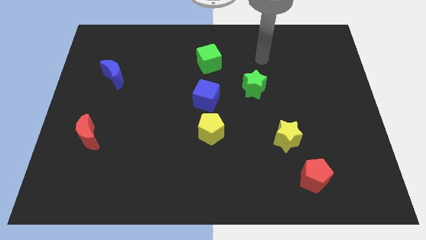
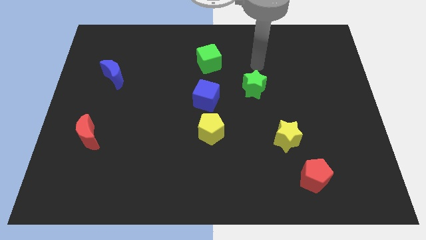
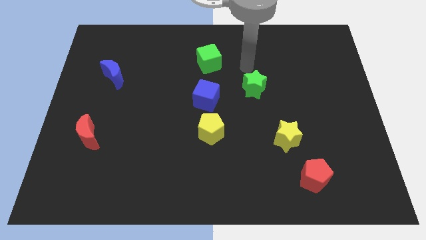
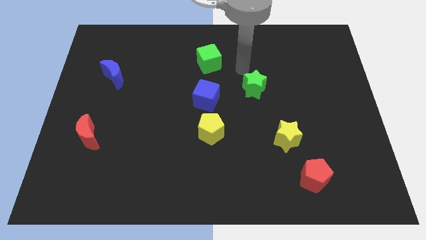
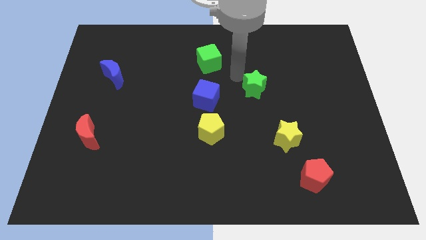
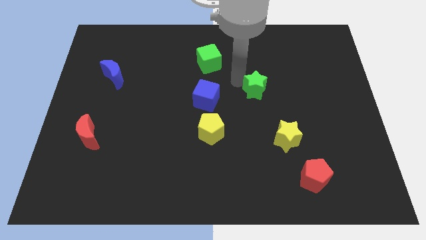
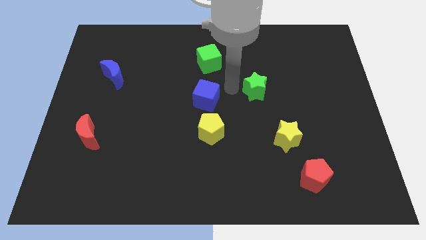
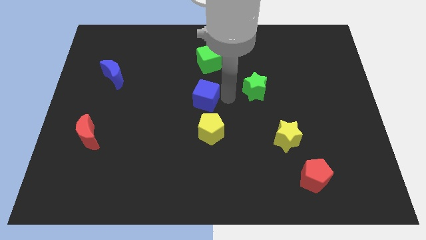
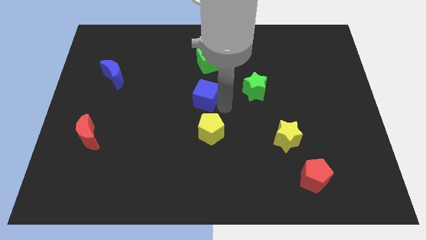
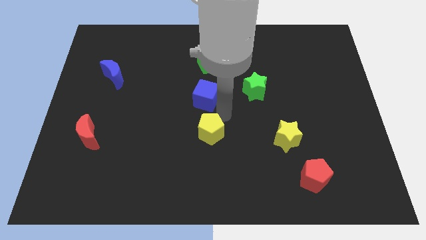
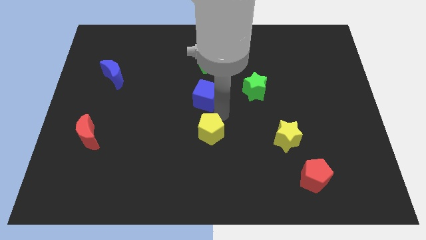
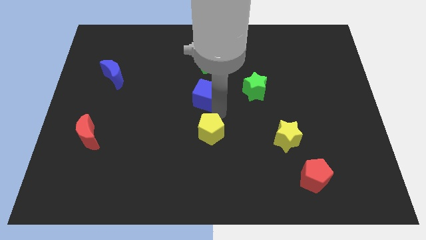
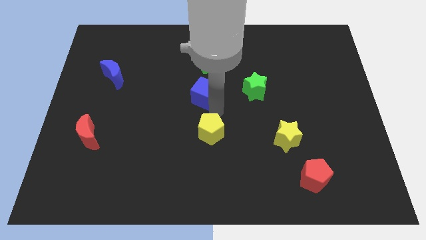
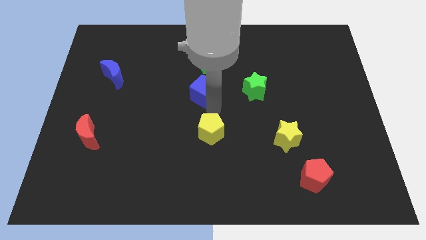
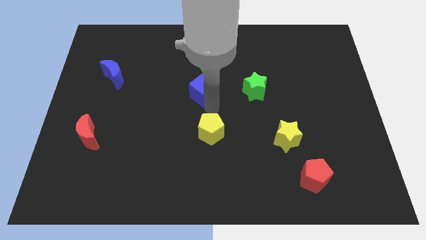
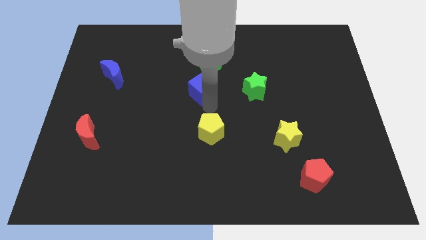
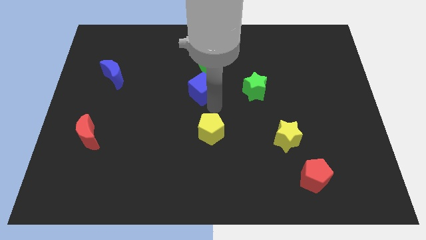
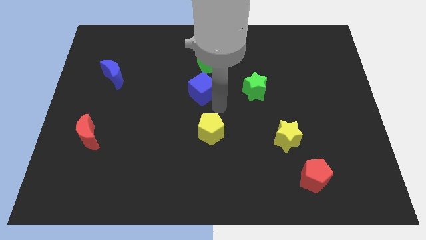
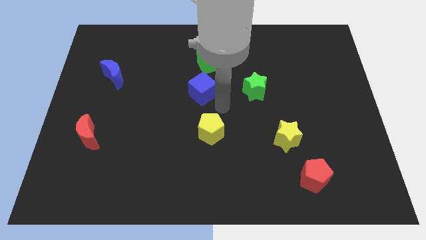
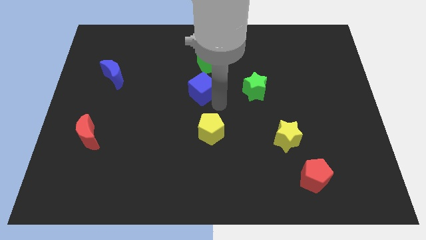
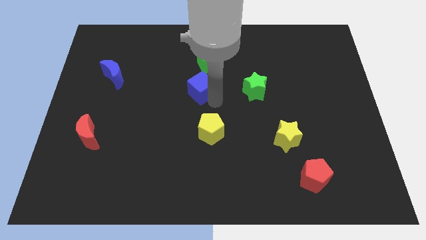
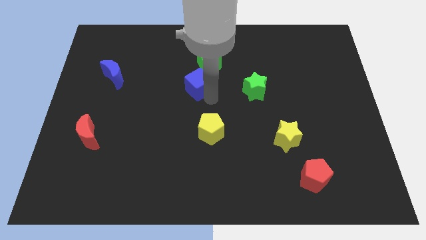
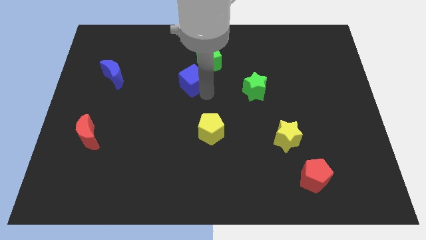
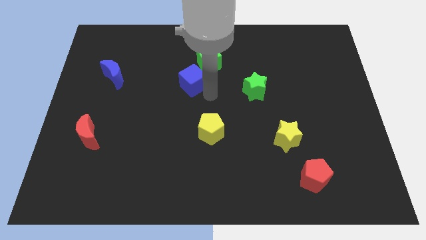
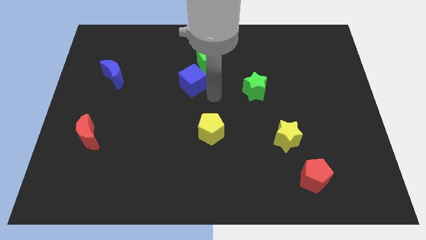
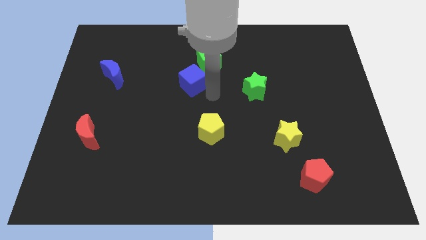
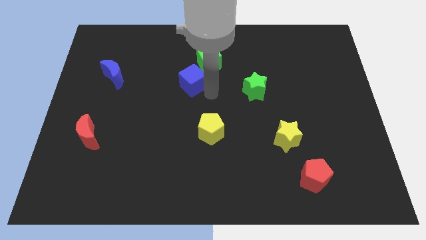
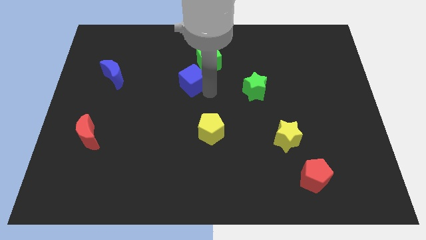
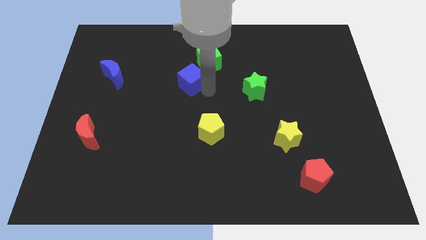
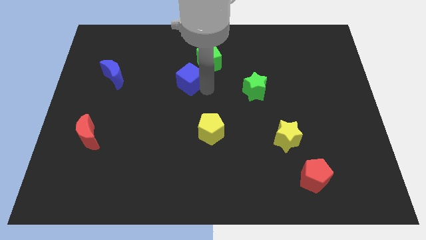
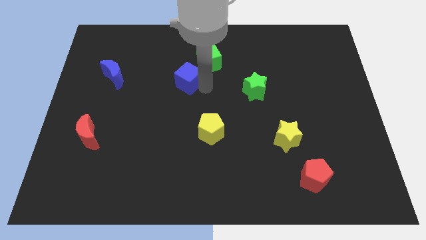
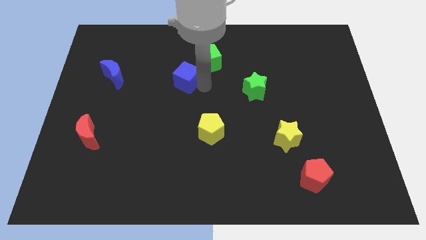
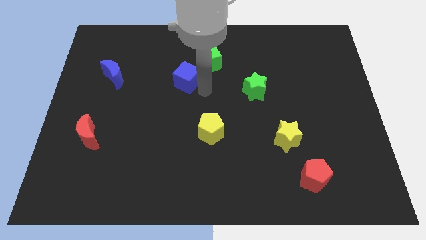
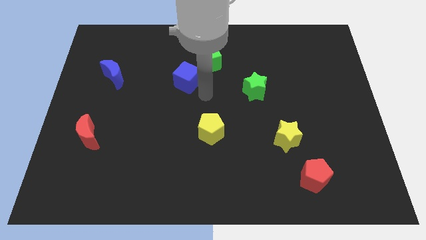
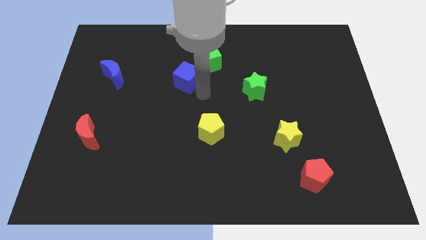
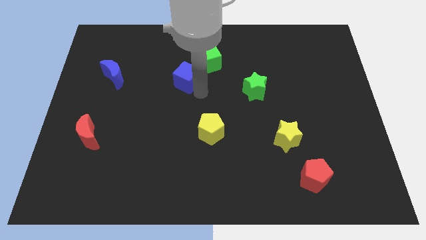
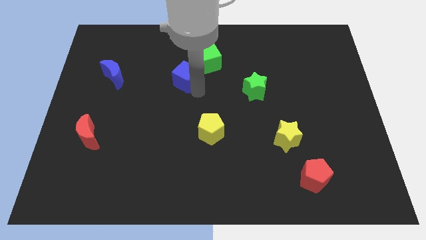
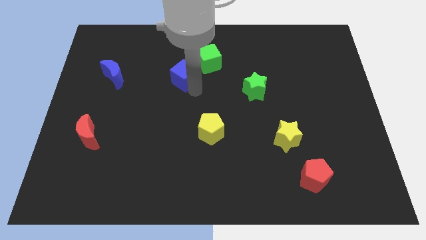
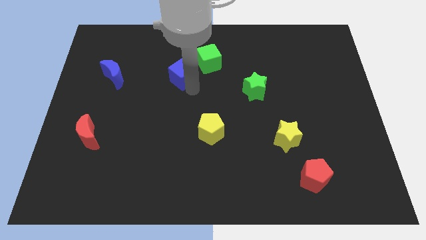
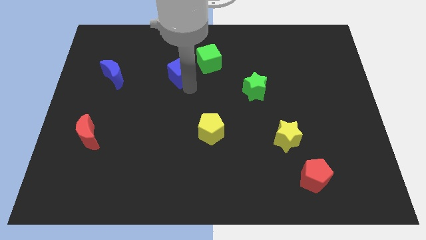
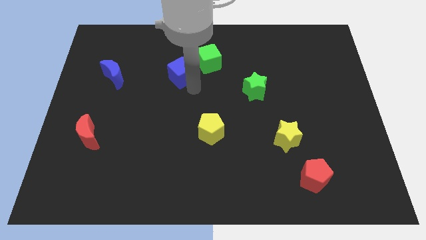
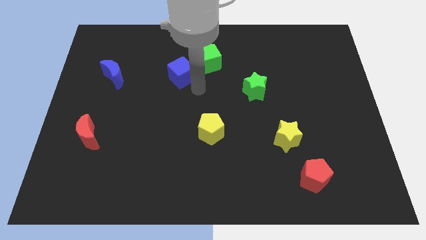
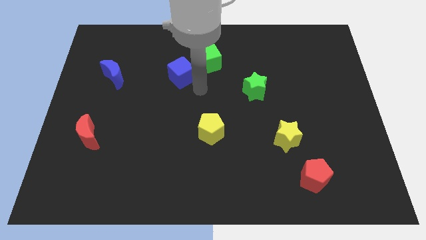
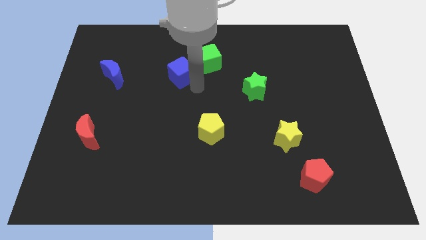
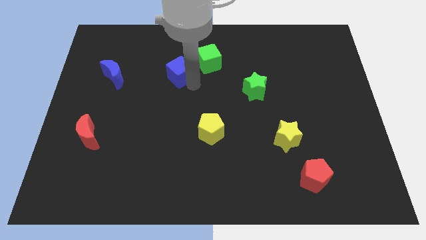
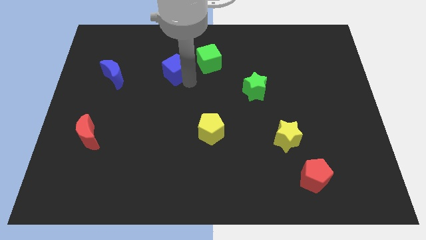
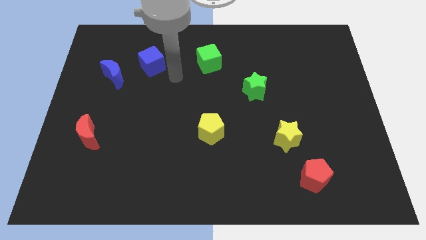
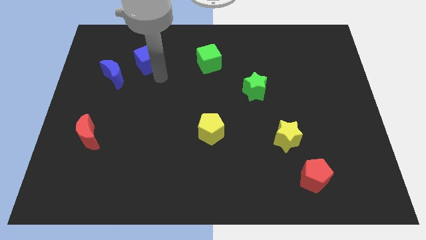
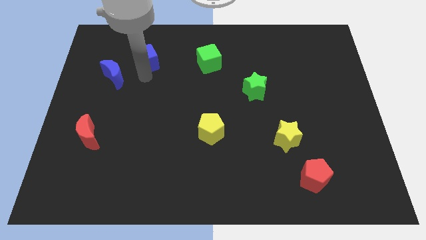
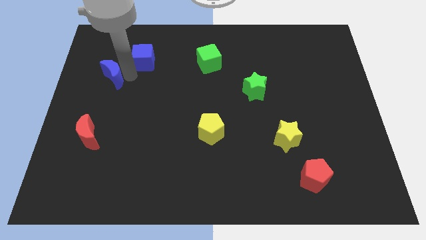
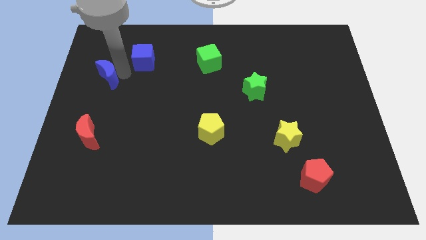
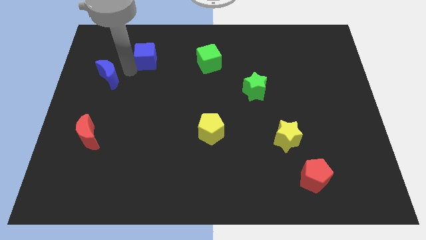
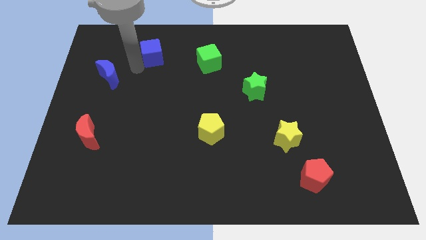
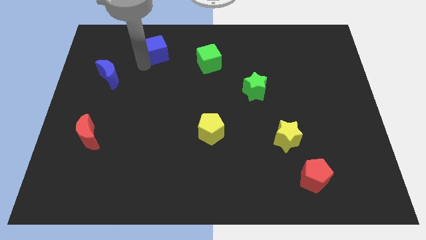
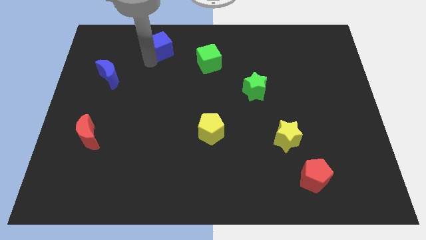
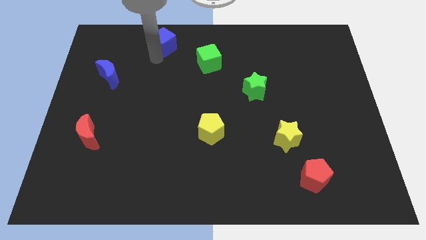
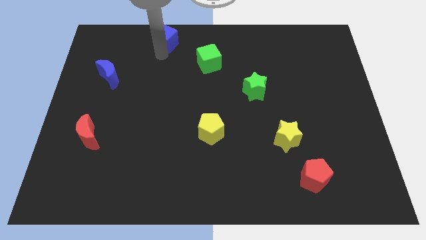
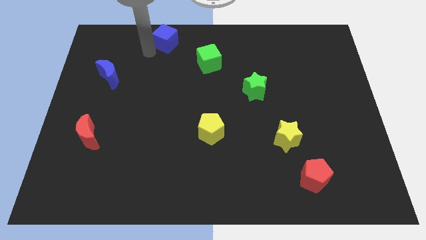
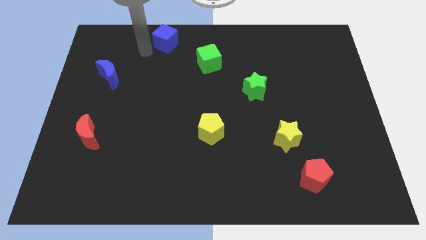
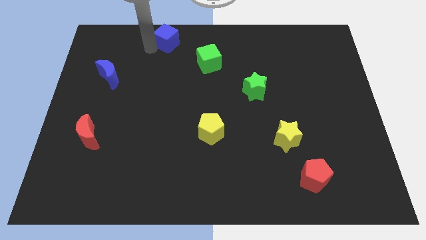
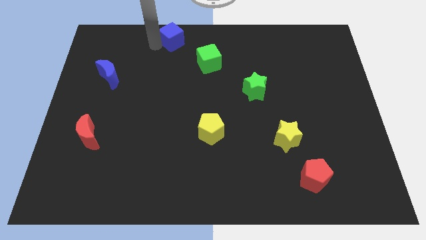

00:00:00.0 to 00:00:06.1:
move the blue cube to the top side
